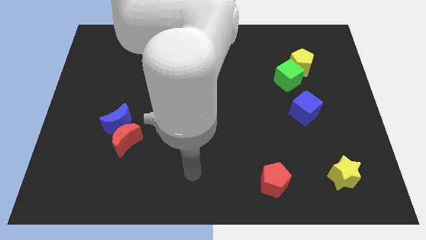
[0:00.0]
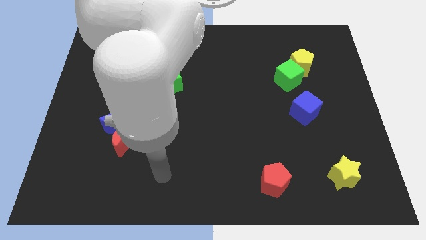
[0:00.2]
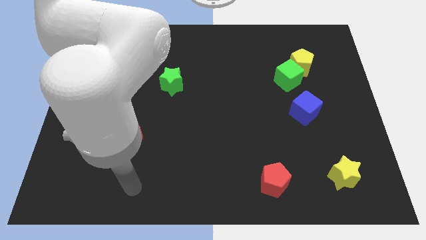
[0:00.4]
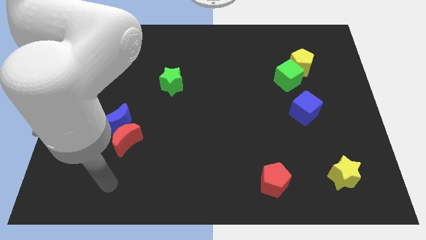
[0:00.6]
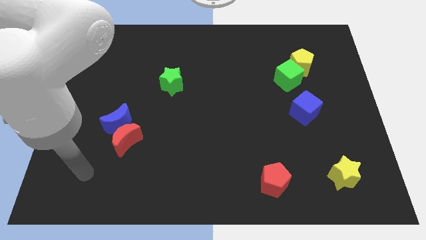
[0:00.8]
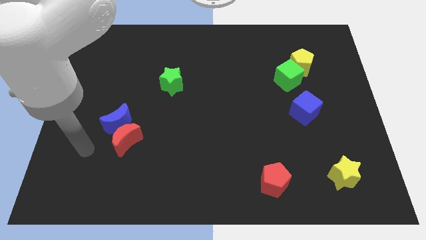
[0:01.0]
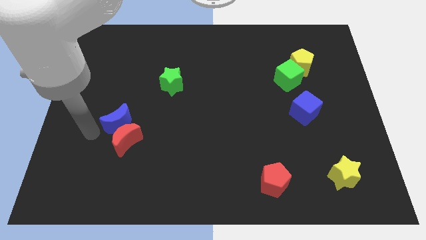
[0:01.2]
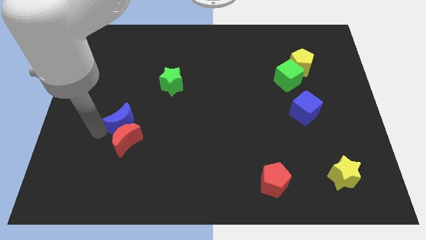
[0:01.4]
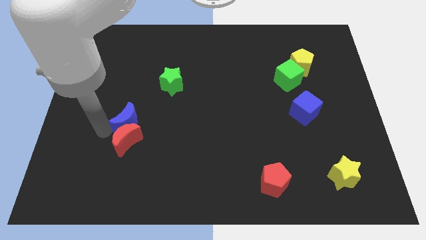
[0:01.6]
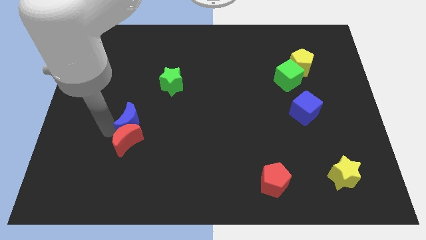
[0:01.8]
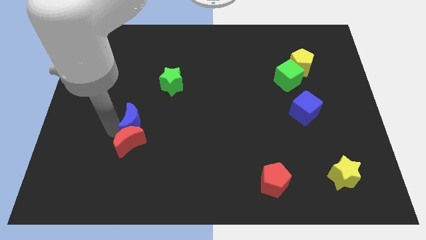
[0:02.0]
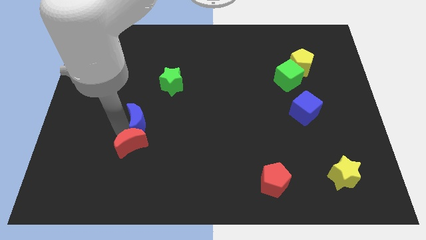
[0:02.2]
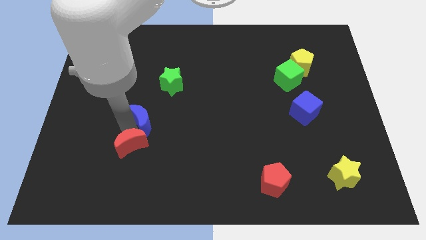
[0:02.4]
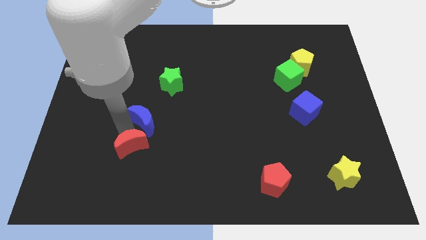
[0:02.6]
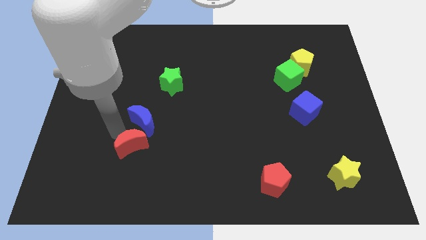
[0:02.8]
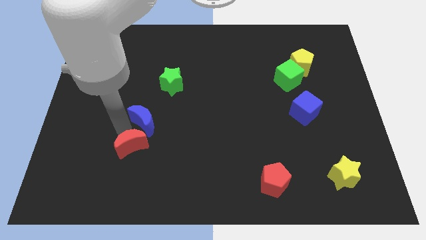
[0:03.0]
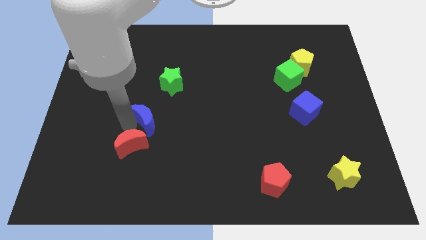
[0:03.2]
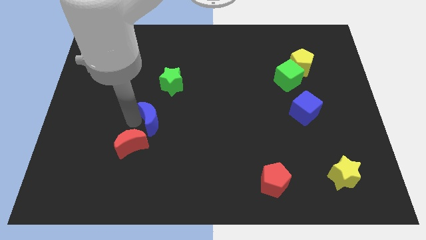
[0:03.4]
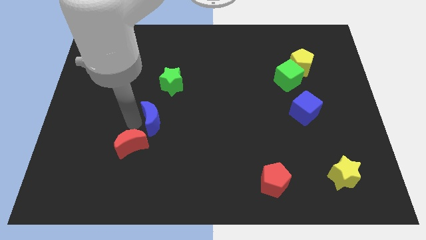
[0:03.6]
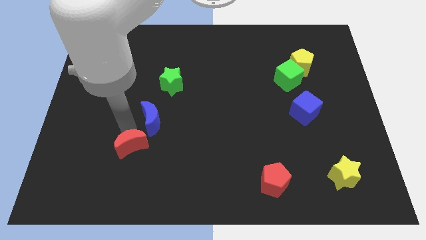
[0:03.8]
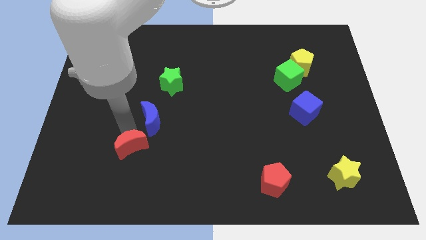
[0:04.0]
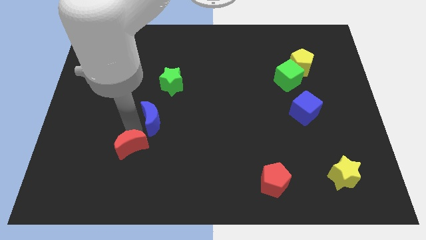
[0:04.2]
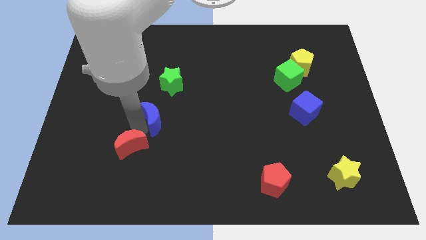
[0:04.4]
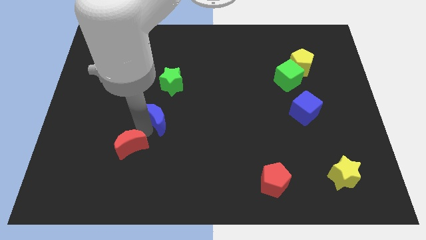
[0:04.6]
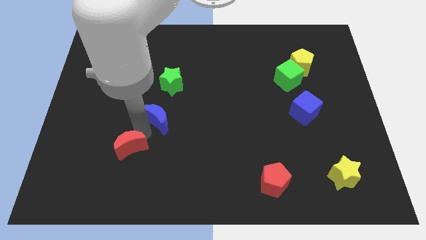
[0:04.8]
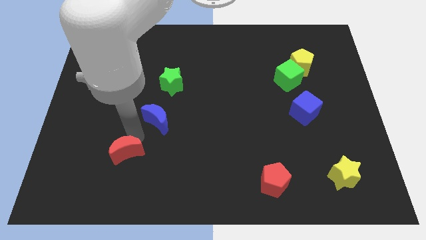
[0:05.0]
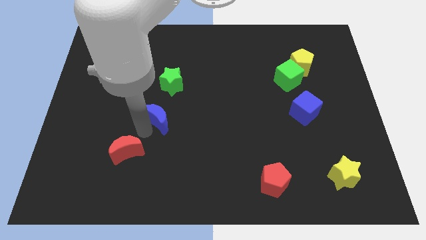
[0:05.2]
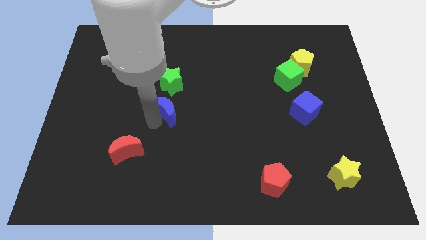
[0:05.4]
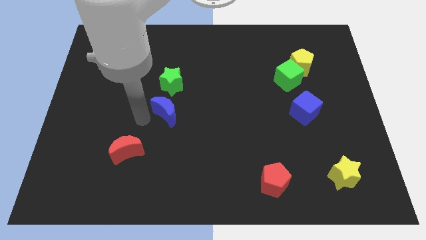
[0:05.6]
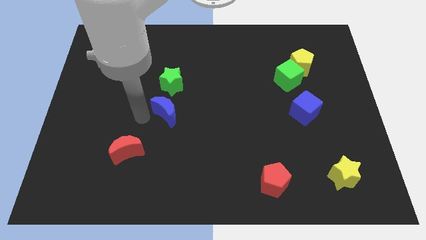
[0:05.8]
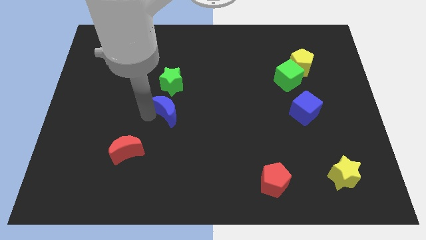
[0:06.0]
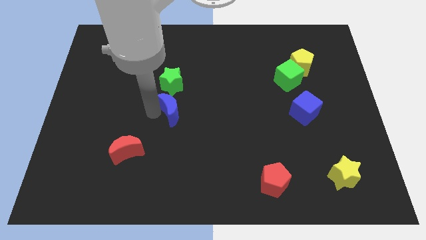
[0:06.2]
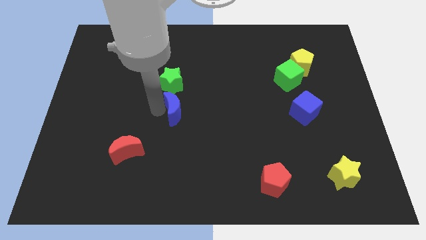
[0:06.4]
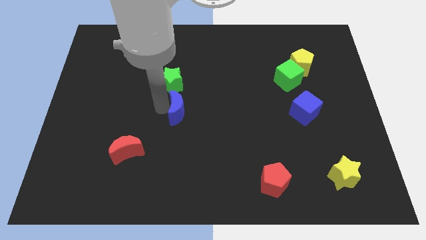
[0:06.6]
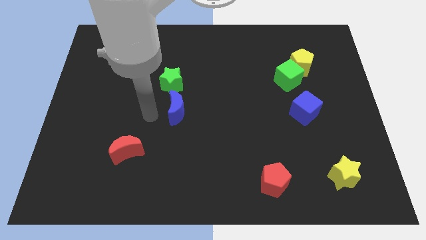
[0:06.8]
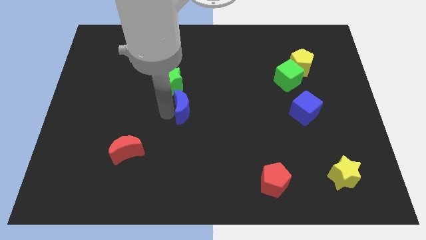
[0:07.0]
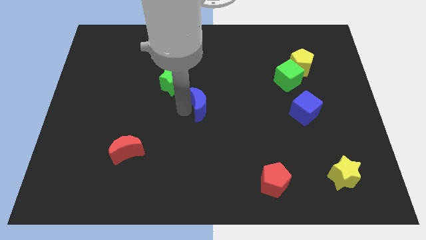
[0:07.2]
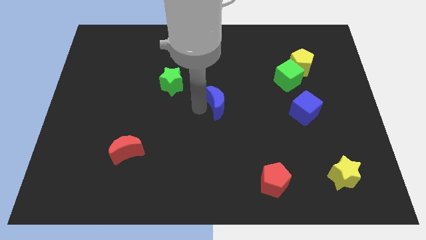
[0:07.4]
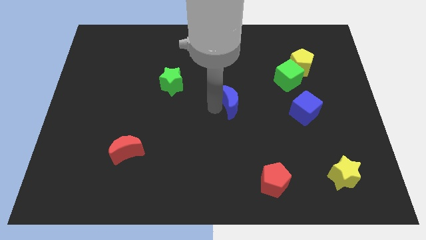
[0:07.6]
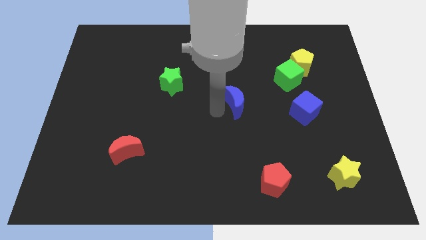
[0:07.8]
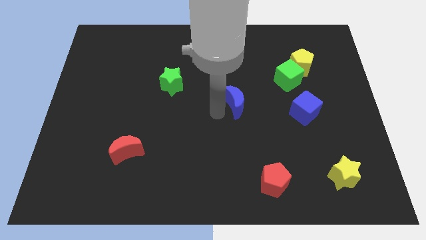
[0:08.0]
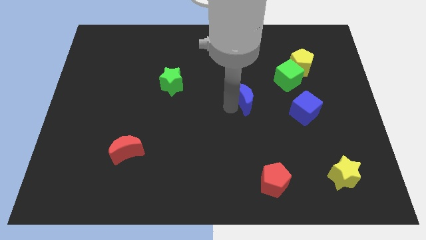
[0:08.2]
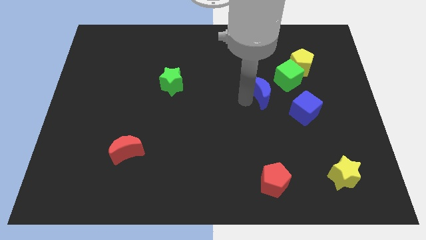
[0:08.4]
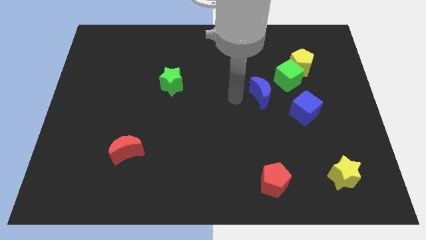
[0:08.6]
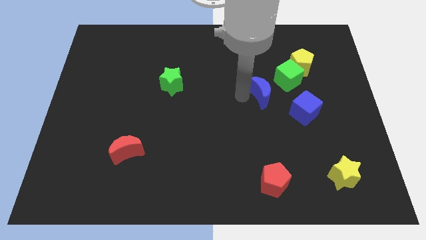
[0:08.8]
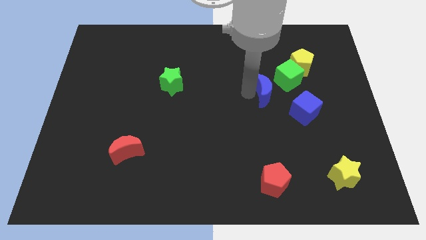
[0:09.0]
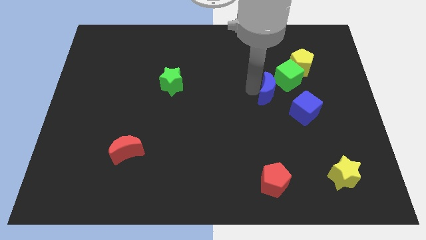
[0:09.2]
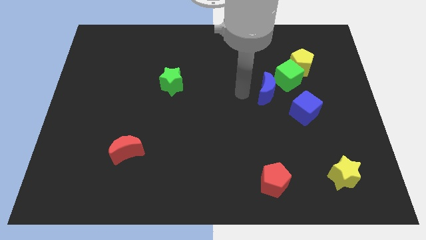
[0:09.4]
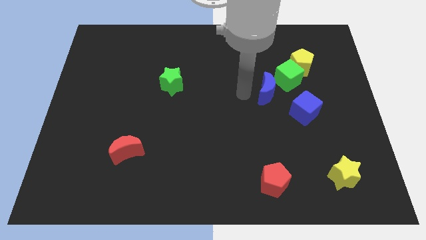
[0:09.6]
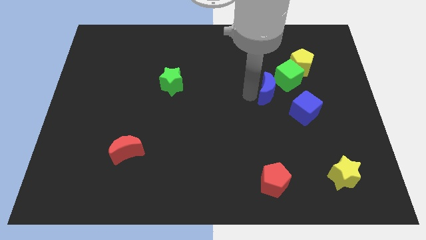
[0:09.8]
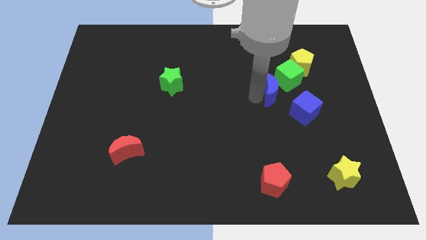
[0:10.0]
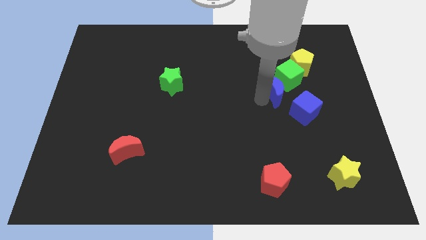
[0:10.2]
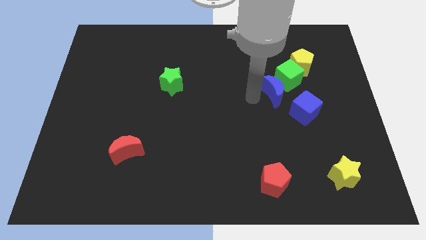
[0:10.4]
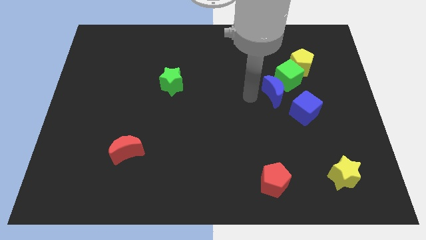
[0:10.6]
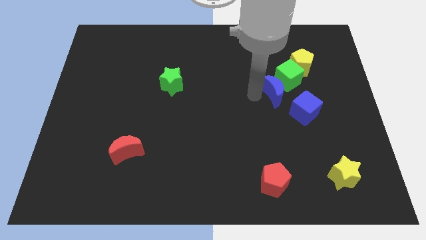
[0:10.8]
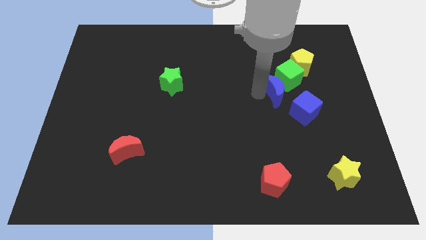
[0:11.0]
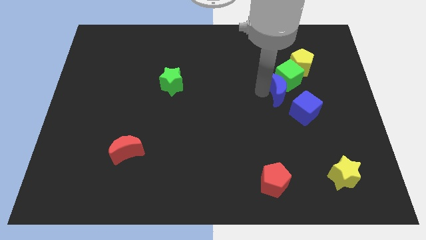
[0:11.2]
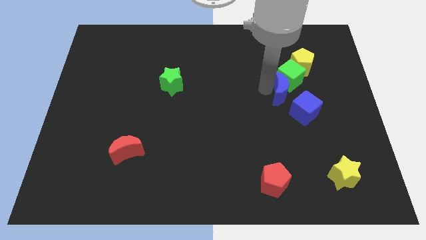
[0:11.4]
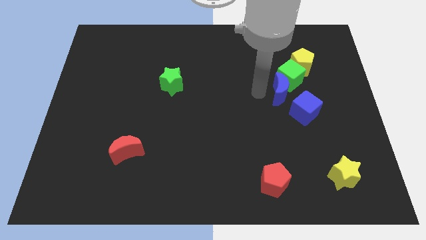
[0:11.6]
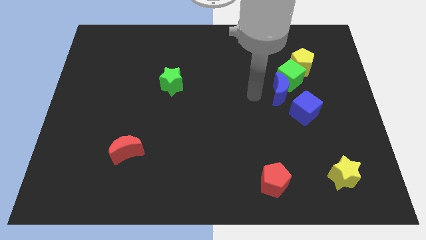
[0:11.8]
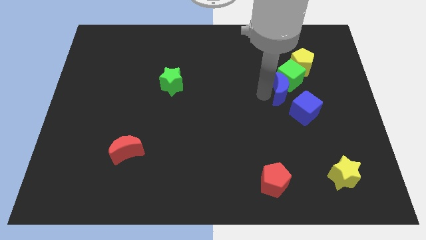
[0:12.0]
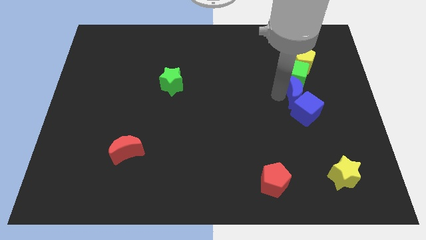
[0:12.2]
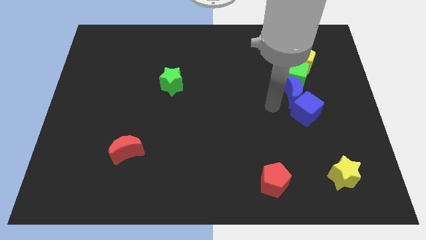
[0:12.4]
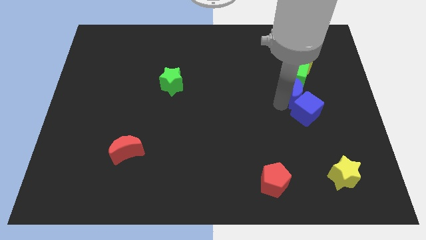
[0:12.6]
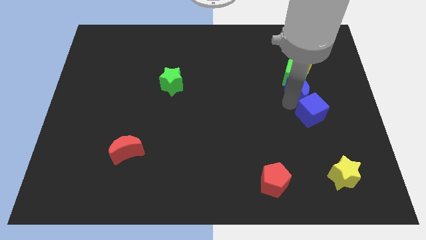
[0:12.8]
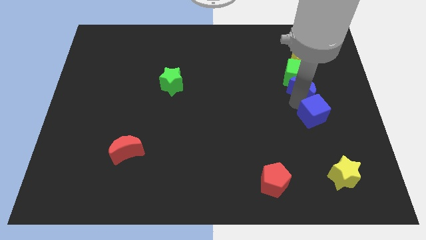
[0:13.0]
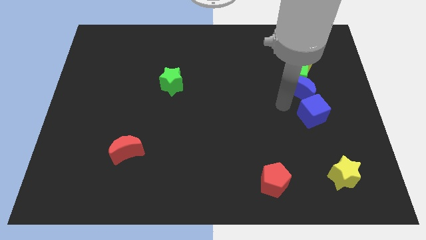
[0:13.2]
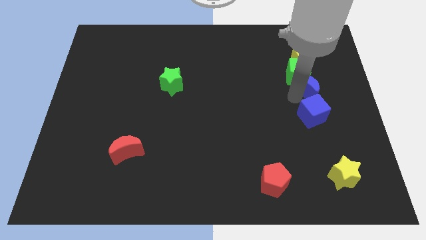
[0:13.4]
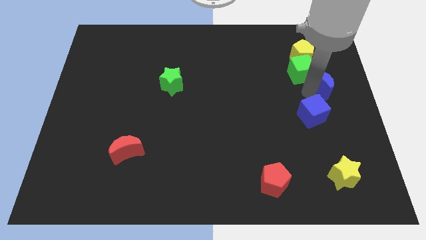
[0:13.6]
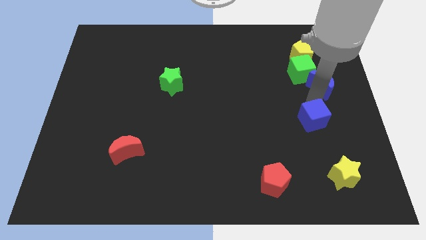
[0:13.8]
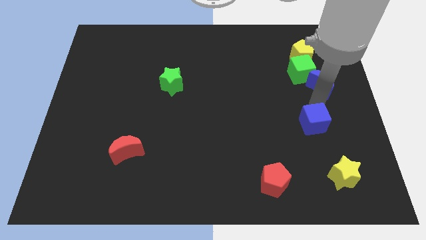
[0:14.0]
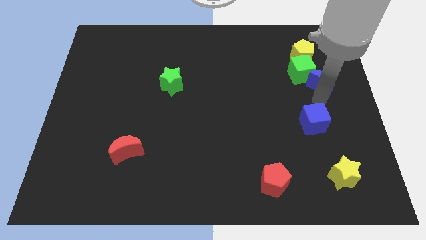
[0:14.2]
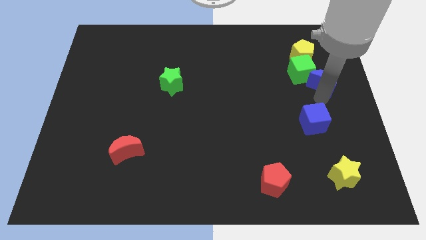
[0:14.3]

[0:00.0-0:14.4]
slide the blue moon diagonally down and to the right of the yellow pentagon
